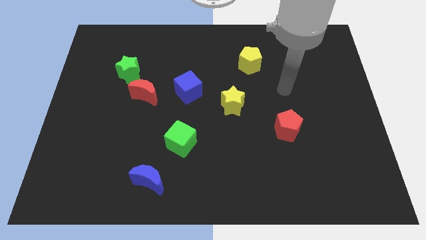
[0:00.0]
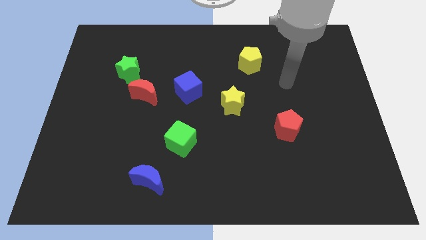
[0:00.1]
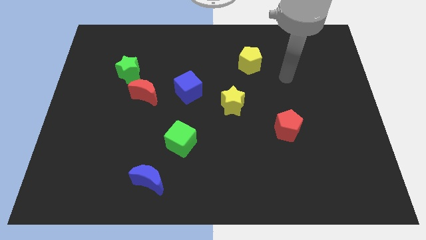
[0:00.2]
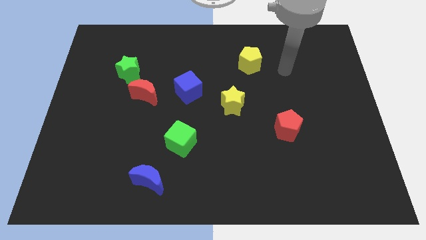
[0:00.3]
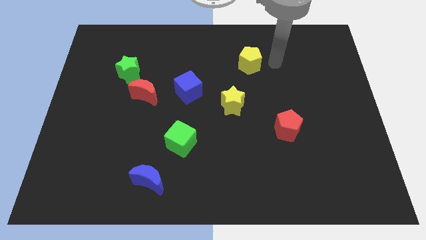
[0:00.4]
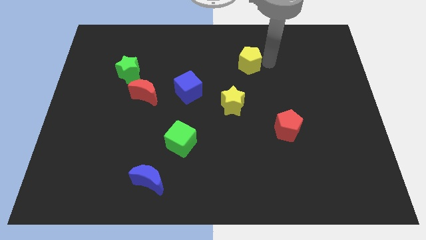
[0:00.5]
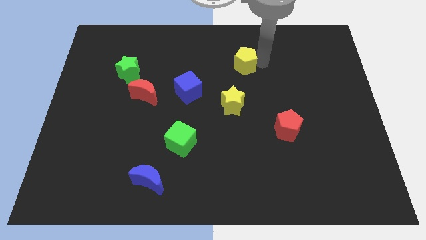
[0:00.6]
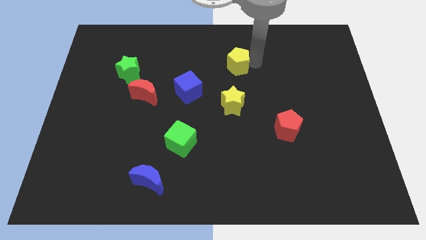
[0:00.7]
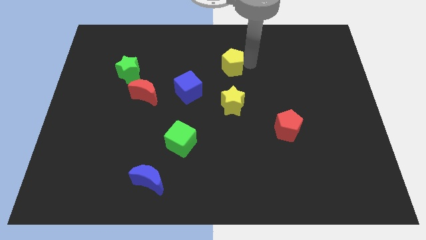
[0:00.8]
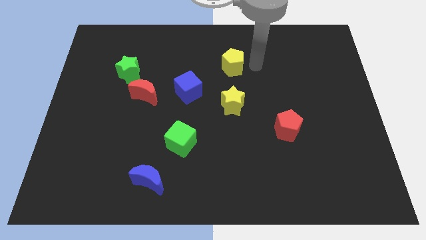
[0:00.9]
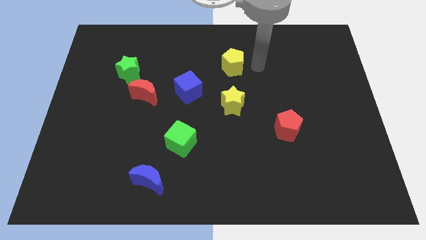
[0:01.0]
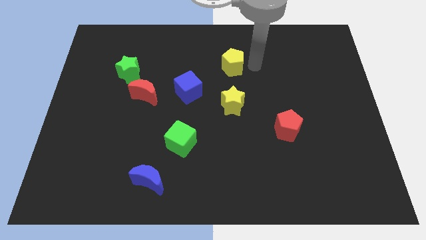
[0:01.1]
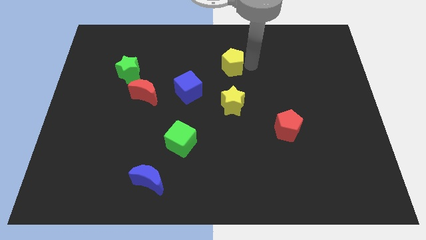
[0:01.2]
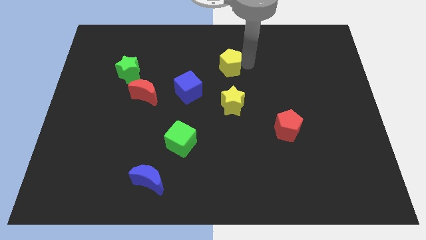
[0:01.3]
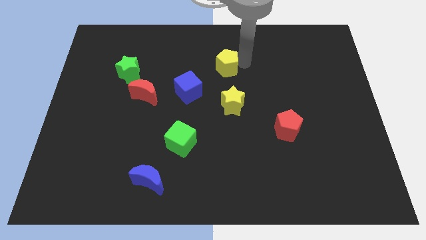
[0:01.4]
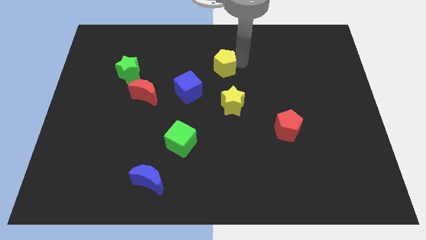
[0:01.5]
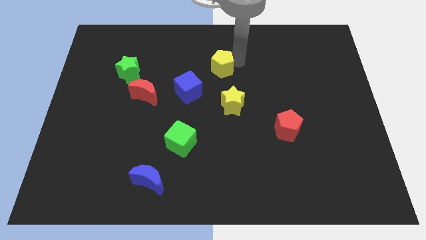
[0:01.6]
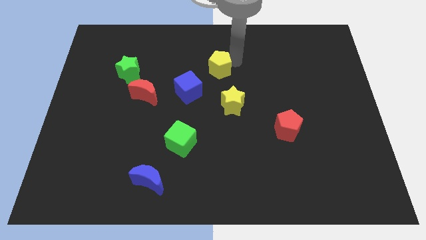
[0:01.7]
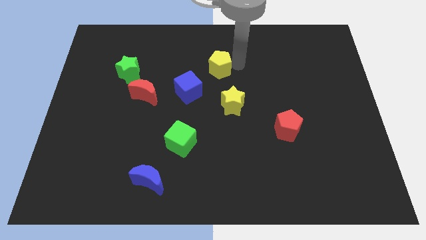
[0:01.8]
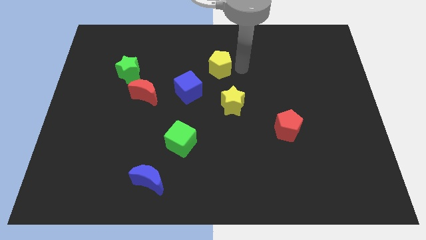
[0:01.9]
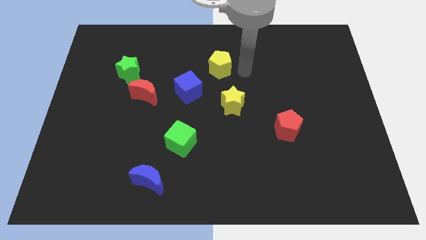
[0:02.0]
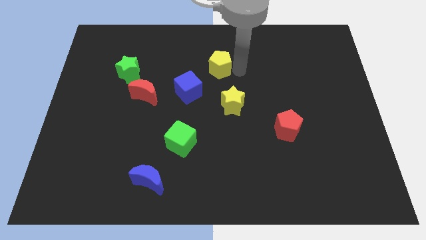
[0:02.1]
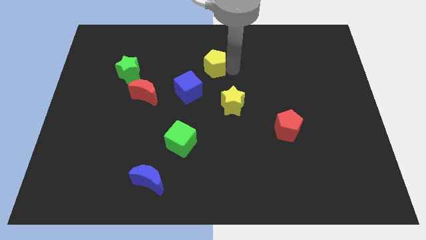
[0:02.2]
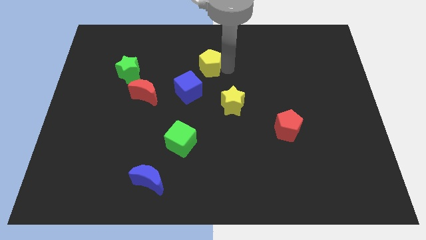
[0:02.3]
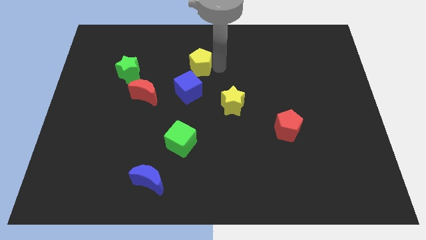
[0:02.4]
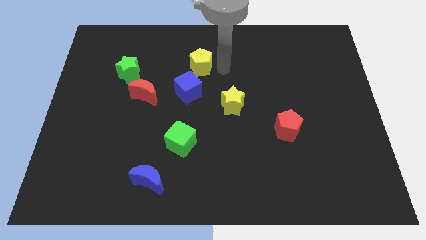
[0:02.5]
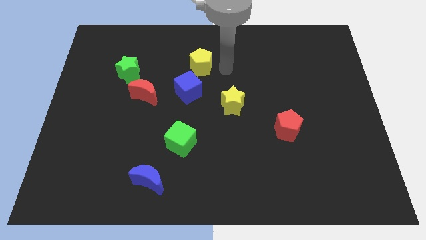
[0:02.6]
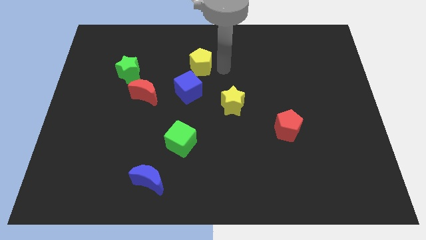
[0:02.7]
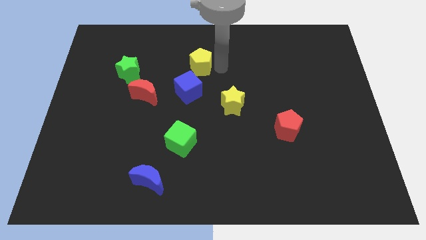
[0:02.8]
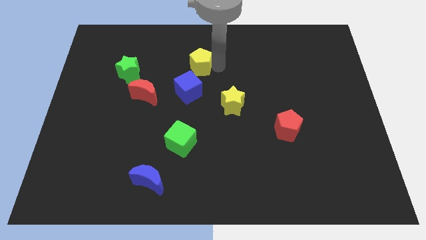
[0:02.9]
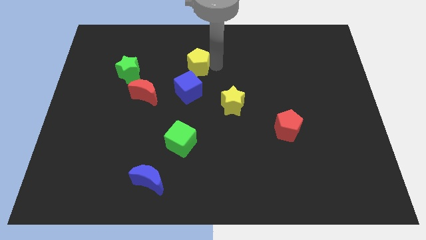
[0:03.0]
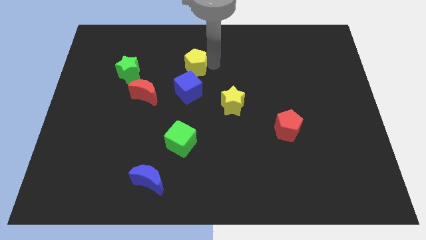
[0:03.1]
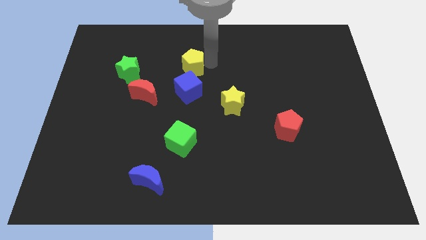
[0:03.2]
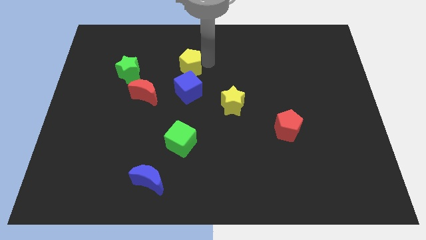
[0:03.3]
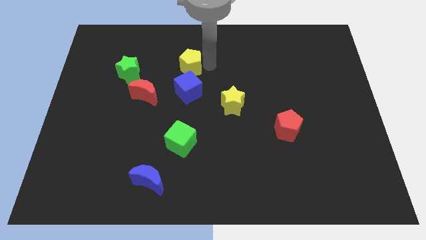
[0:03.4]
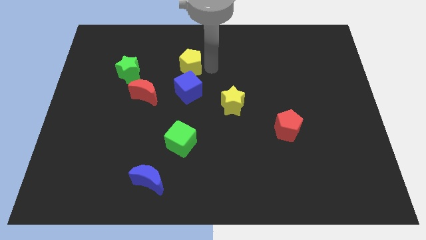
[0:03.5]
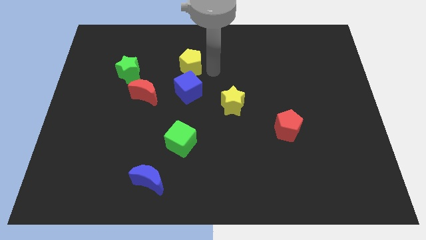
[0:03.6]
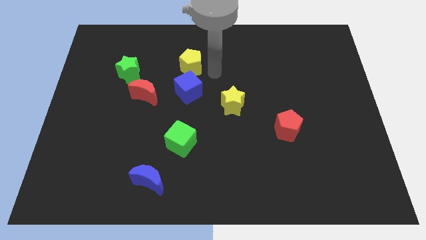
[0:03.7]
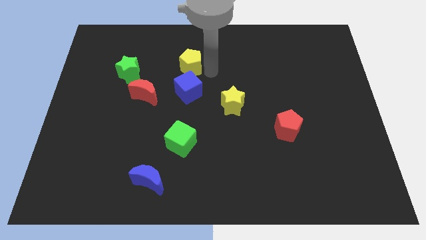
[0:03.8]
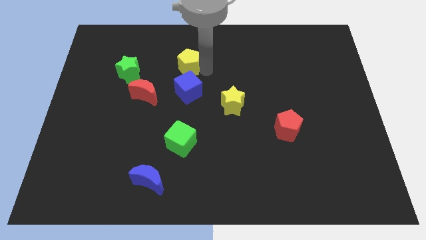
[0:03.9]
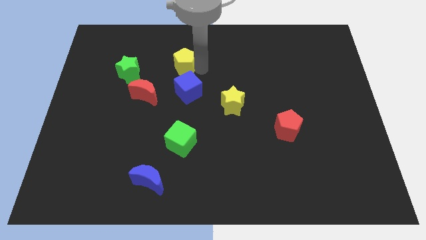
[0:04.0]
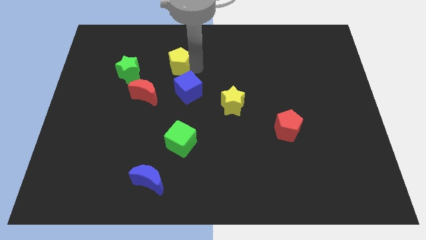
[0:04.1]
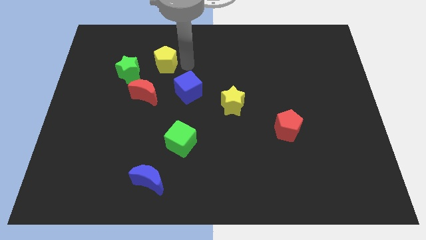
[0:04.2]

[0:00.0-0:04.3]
push the yellow pentagon to the left

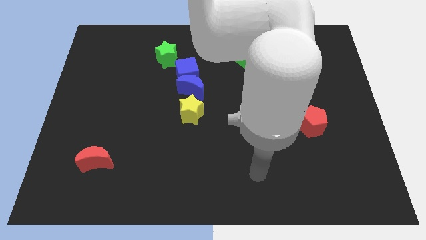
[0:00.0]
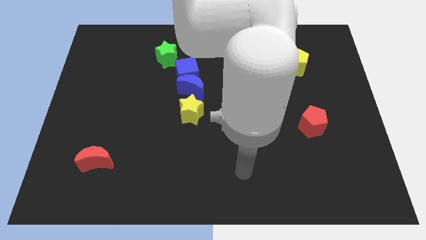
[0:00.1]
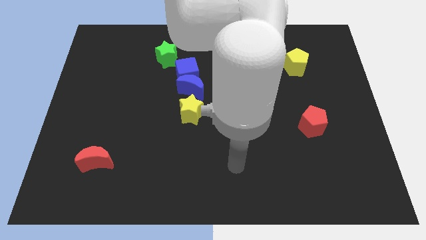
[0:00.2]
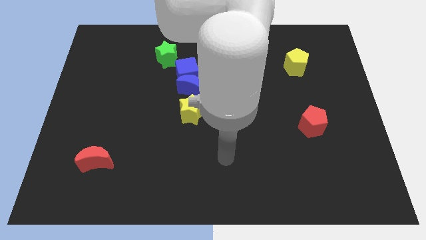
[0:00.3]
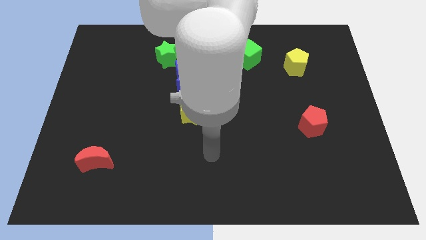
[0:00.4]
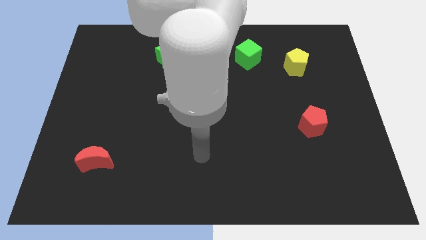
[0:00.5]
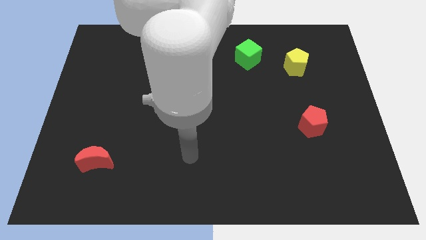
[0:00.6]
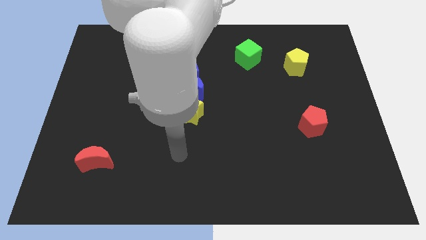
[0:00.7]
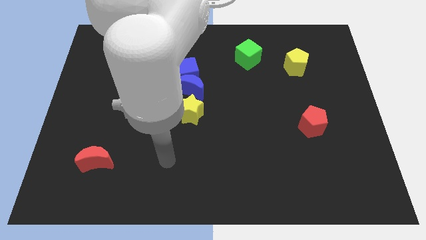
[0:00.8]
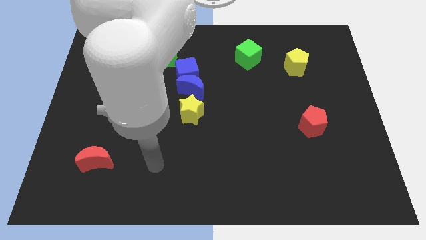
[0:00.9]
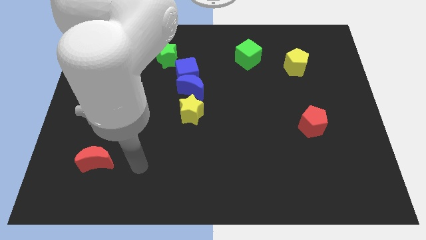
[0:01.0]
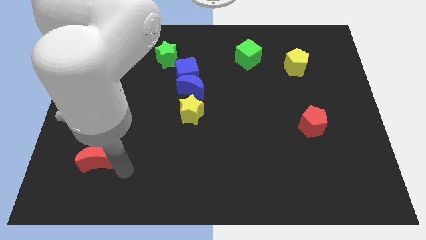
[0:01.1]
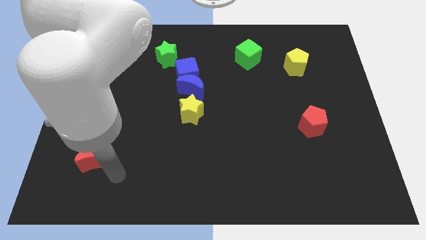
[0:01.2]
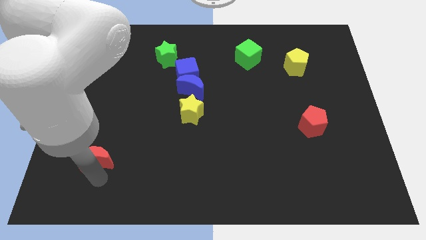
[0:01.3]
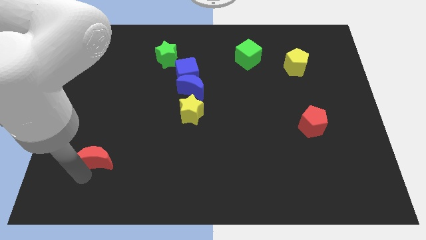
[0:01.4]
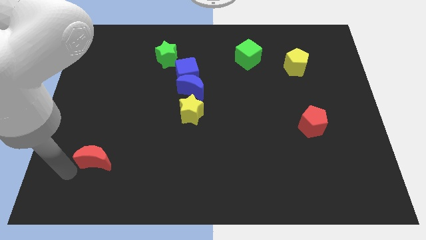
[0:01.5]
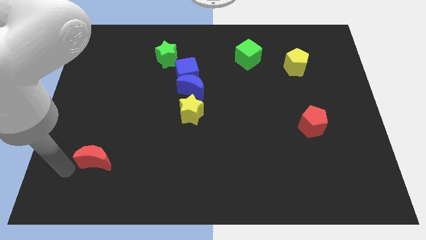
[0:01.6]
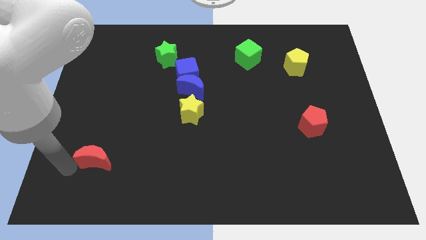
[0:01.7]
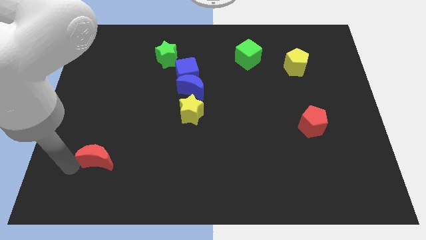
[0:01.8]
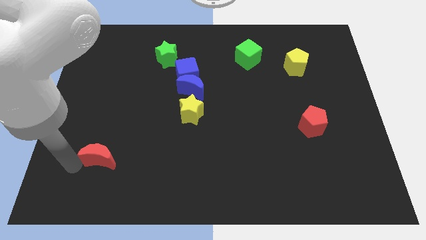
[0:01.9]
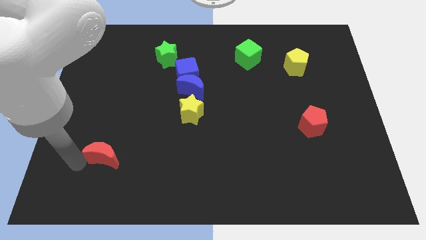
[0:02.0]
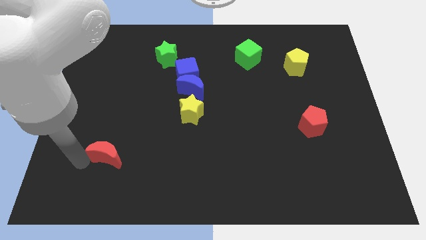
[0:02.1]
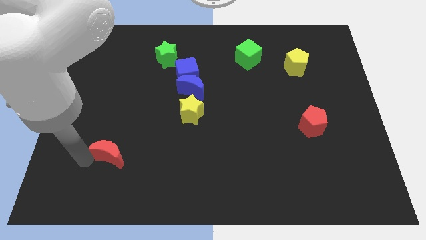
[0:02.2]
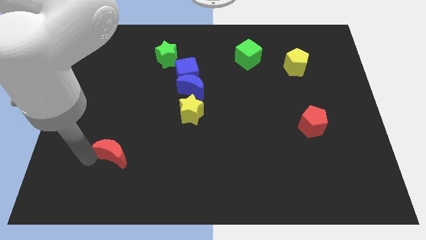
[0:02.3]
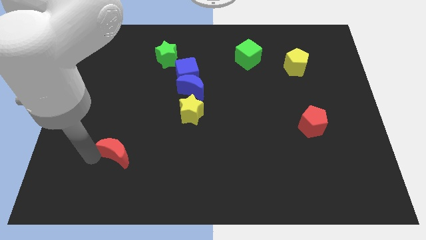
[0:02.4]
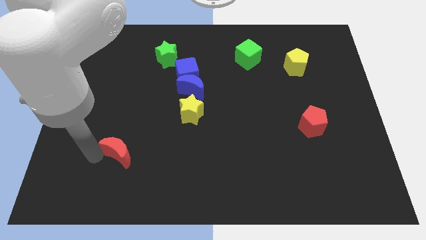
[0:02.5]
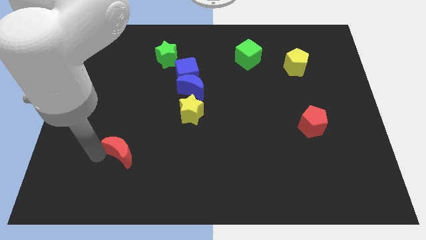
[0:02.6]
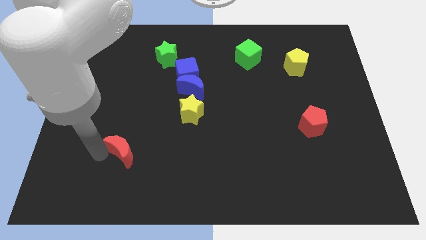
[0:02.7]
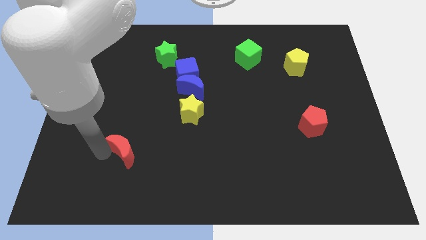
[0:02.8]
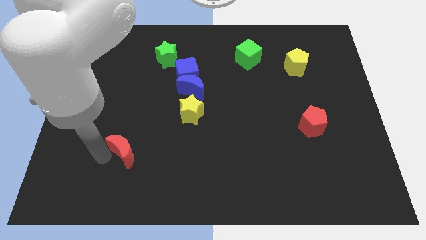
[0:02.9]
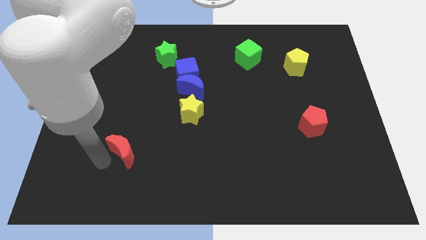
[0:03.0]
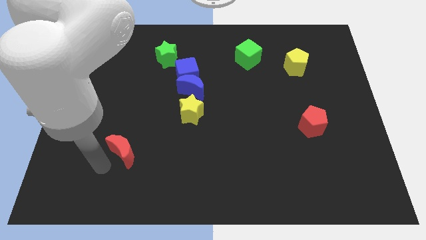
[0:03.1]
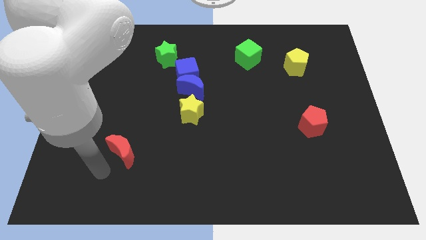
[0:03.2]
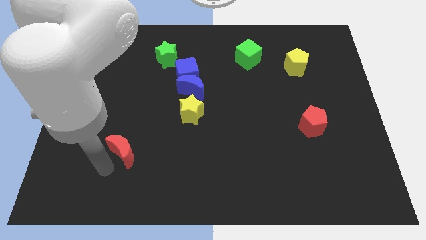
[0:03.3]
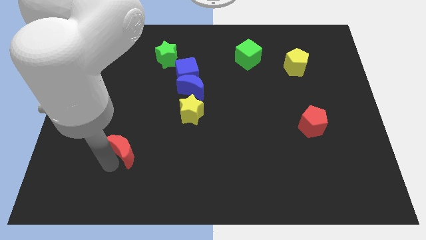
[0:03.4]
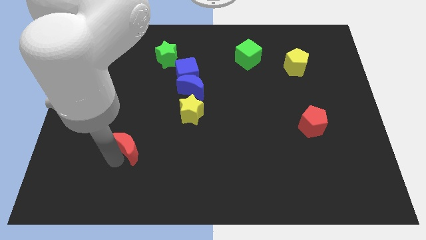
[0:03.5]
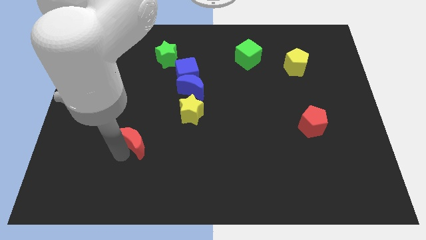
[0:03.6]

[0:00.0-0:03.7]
push the red moon up and to the right a bit
